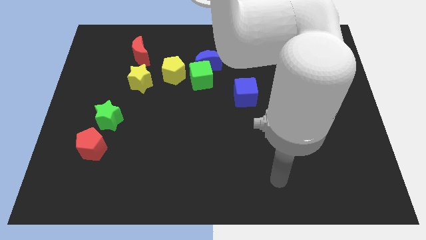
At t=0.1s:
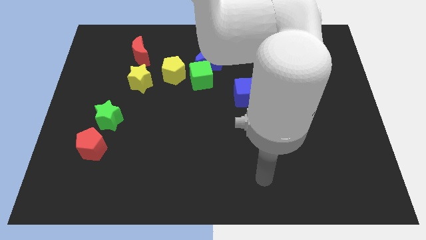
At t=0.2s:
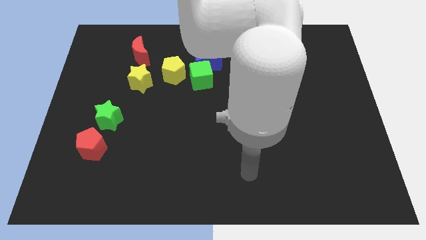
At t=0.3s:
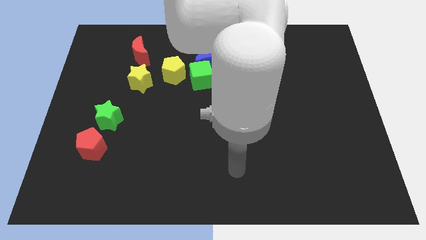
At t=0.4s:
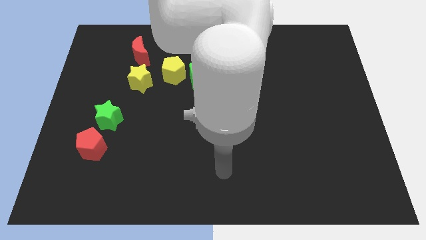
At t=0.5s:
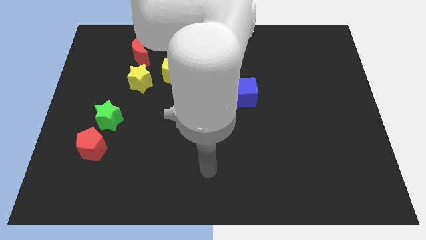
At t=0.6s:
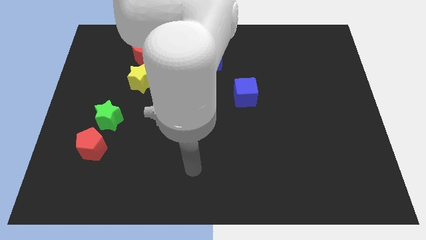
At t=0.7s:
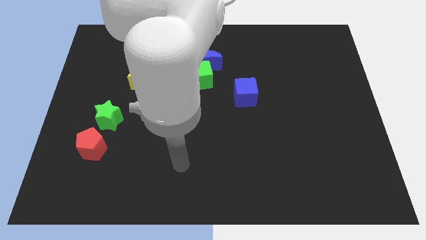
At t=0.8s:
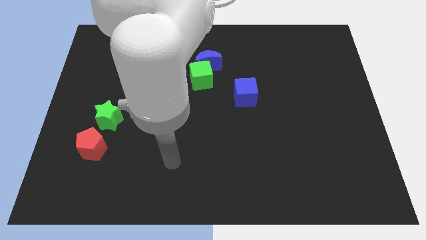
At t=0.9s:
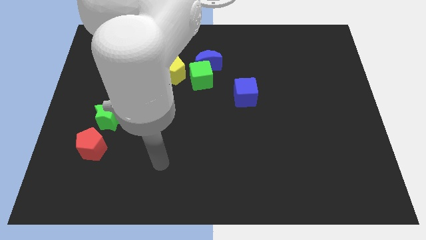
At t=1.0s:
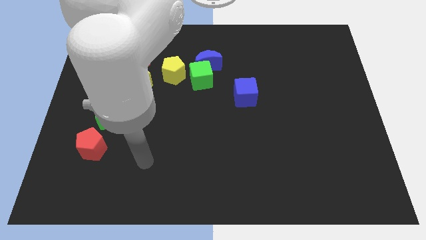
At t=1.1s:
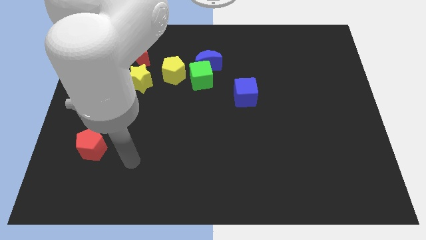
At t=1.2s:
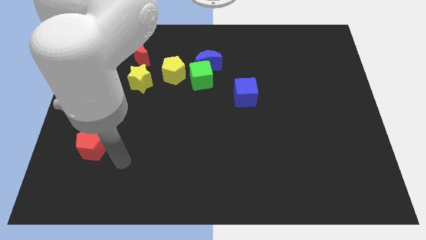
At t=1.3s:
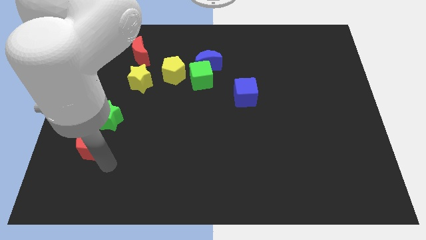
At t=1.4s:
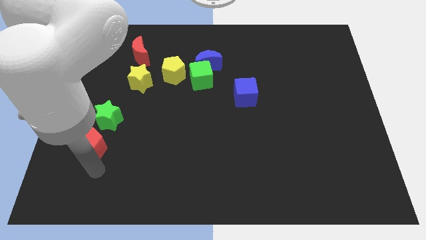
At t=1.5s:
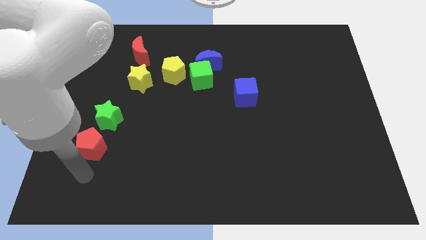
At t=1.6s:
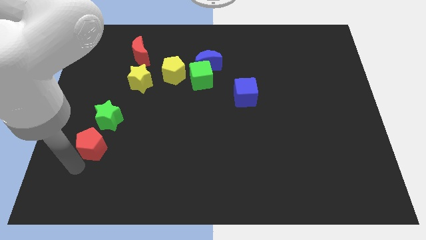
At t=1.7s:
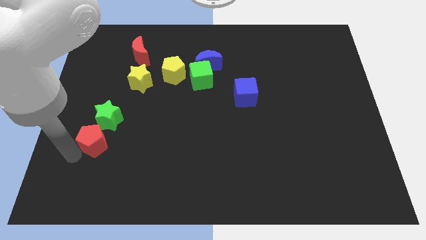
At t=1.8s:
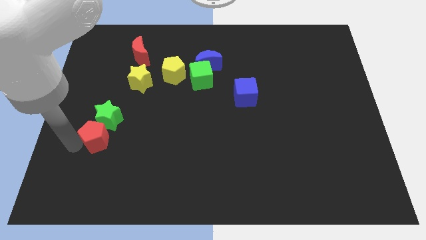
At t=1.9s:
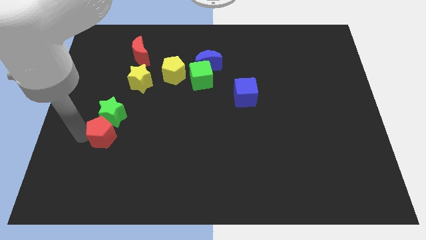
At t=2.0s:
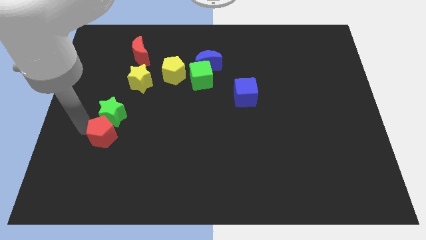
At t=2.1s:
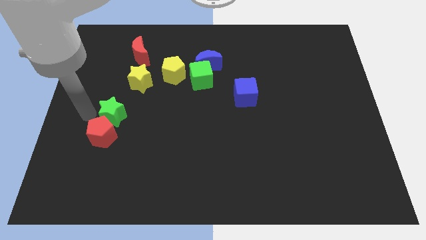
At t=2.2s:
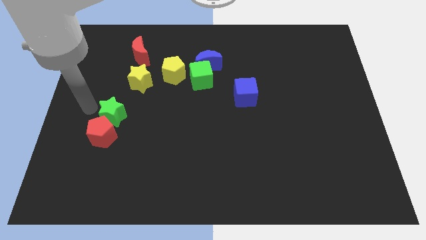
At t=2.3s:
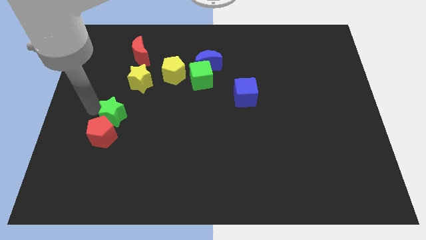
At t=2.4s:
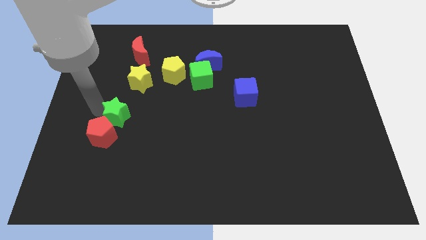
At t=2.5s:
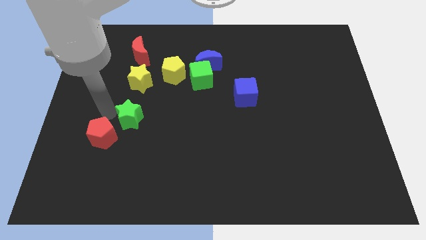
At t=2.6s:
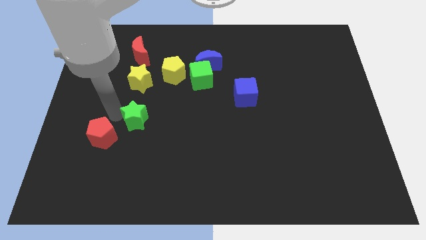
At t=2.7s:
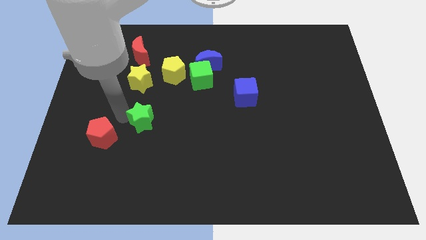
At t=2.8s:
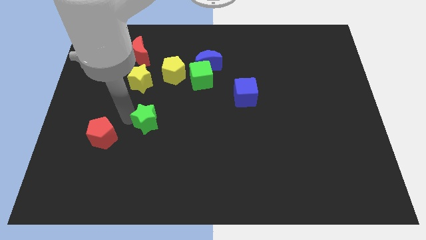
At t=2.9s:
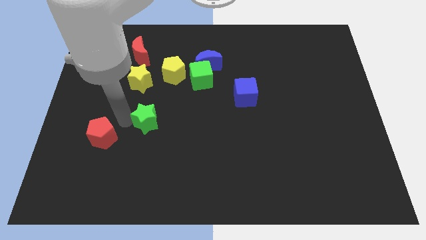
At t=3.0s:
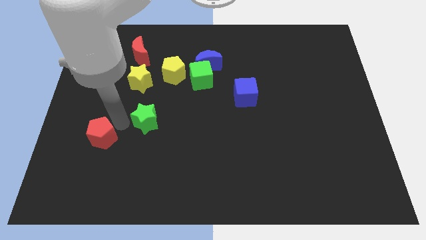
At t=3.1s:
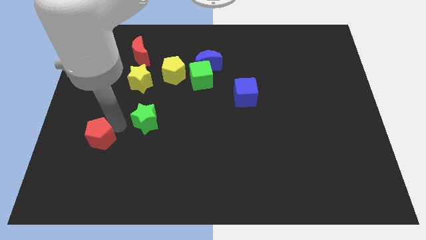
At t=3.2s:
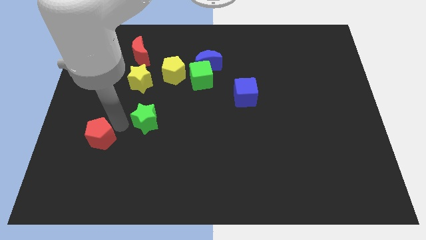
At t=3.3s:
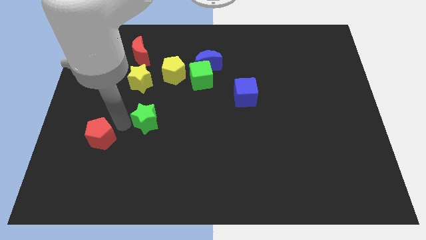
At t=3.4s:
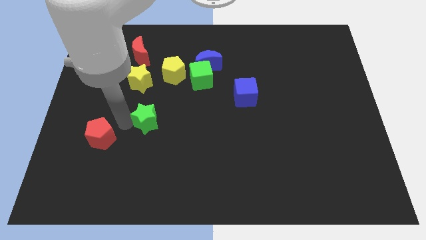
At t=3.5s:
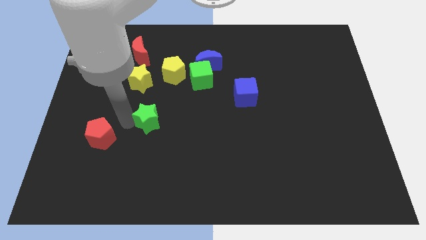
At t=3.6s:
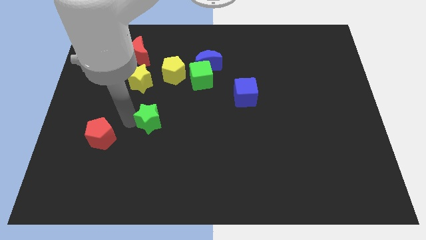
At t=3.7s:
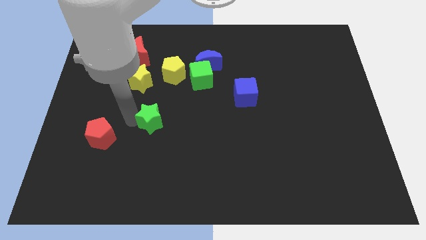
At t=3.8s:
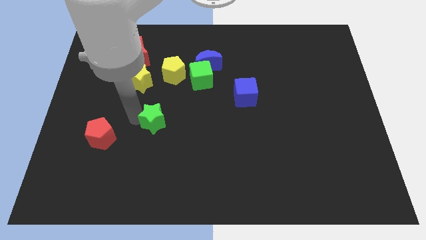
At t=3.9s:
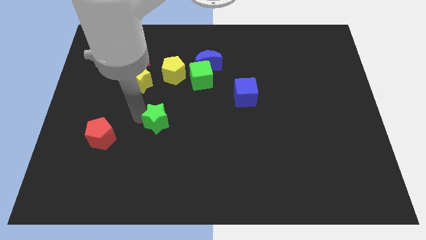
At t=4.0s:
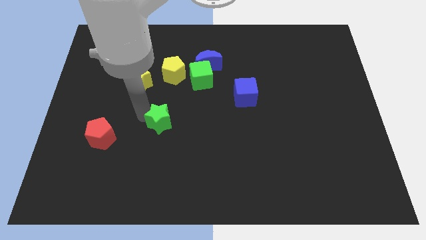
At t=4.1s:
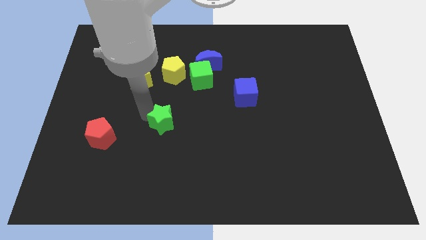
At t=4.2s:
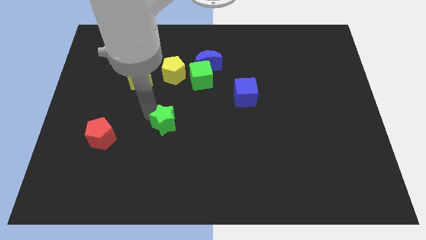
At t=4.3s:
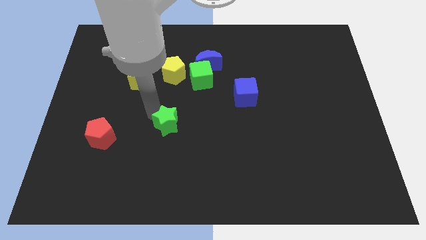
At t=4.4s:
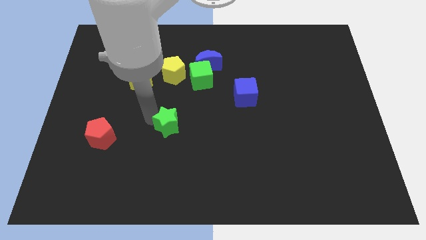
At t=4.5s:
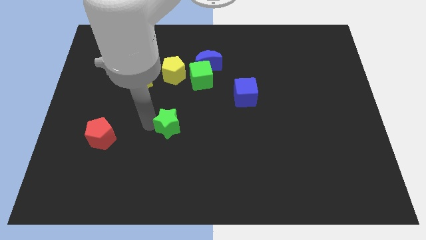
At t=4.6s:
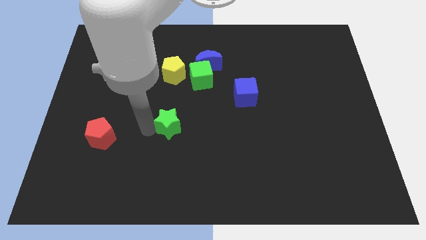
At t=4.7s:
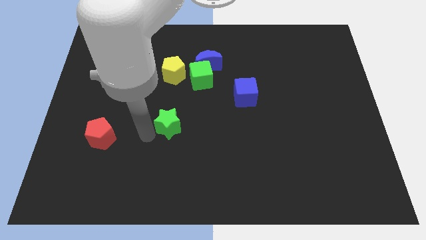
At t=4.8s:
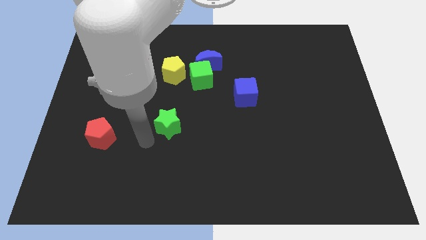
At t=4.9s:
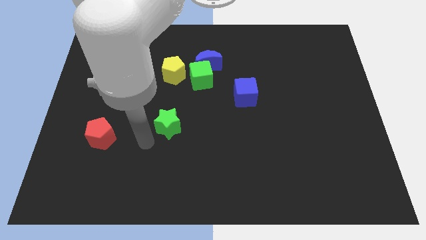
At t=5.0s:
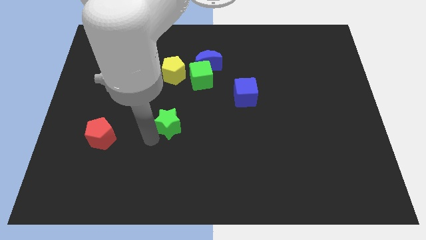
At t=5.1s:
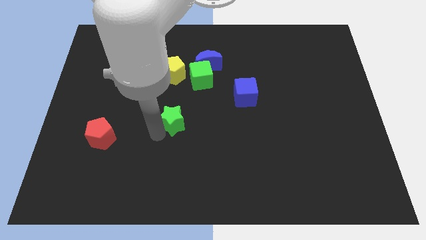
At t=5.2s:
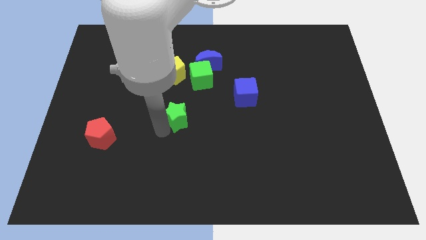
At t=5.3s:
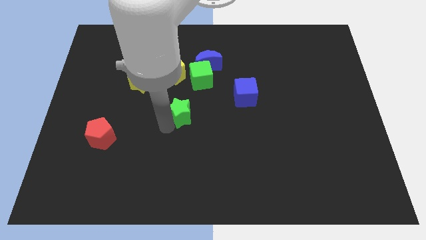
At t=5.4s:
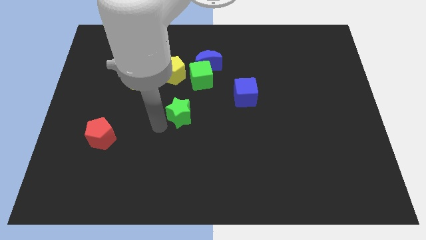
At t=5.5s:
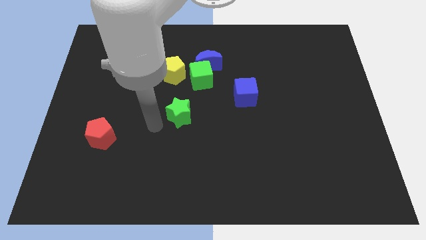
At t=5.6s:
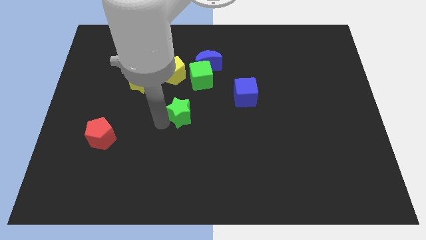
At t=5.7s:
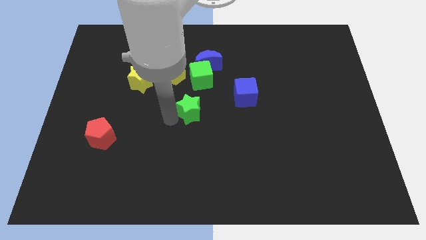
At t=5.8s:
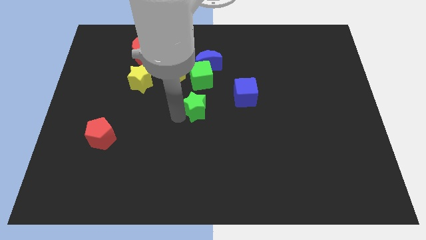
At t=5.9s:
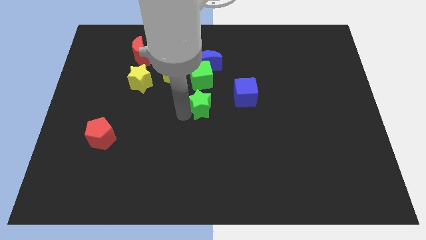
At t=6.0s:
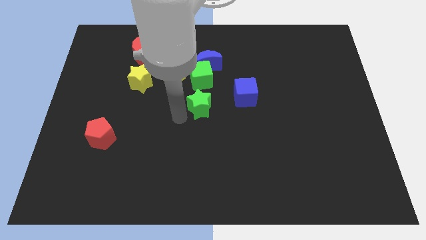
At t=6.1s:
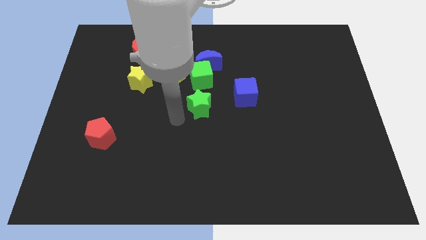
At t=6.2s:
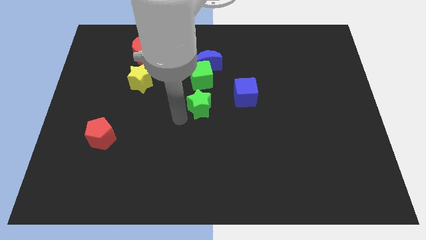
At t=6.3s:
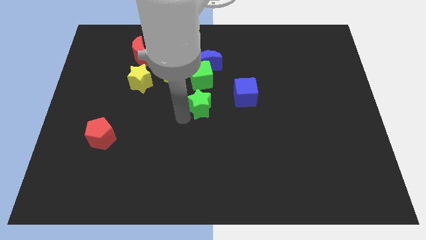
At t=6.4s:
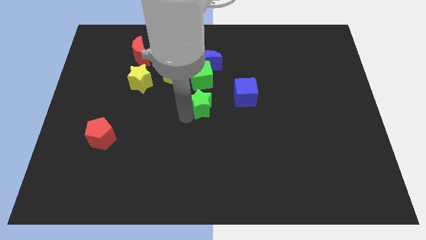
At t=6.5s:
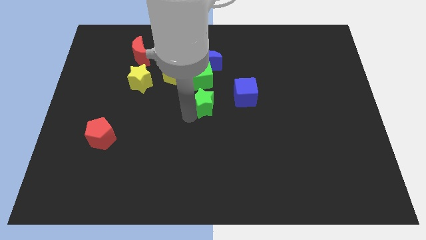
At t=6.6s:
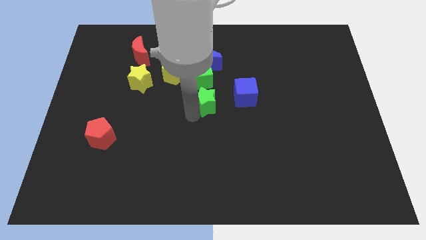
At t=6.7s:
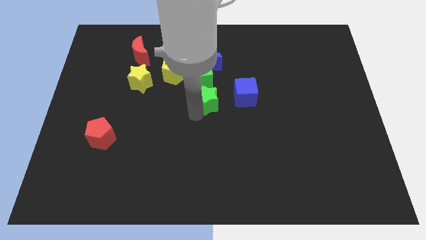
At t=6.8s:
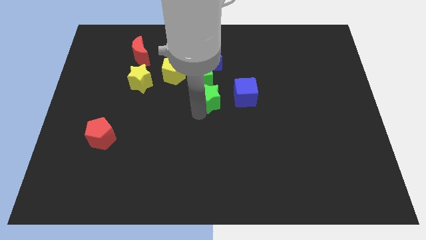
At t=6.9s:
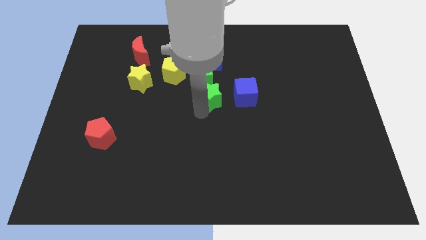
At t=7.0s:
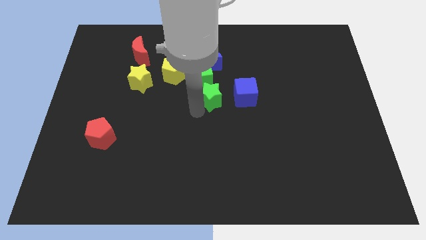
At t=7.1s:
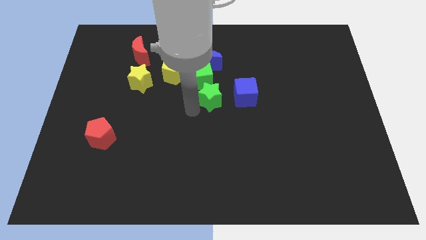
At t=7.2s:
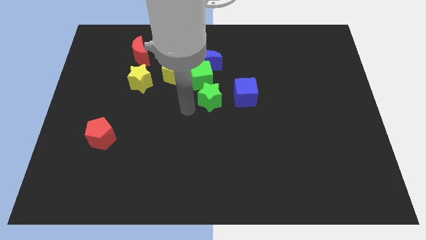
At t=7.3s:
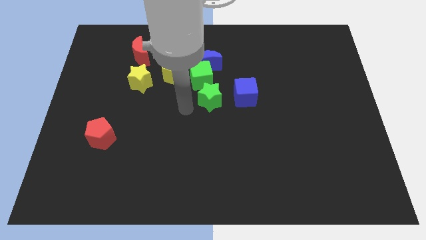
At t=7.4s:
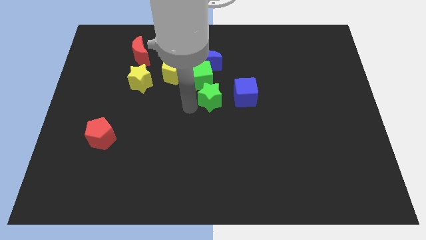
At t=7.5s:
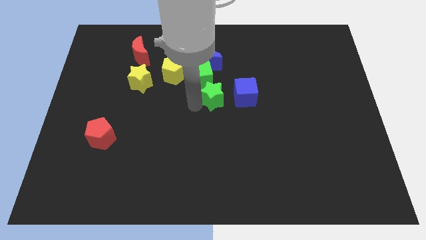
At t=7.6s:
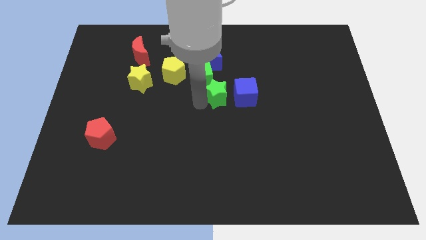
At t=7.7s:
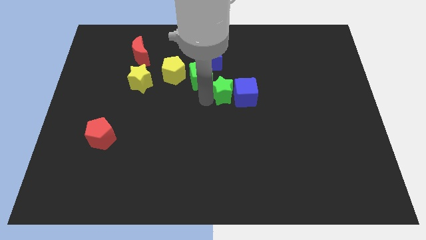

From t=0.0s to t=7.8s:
slide the green star towards the blue cube
